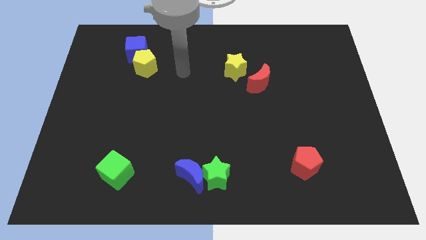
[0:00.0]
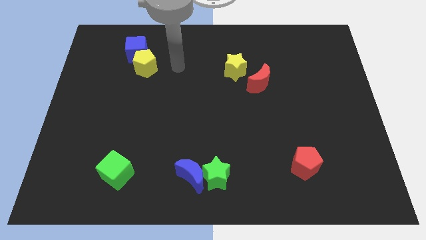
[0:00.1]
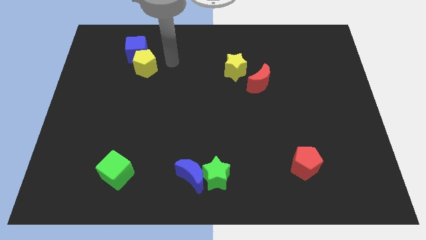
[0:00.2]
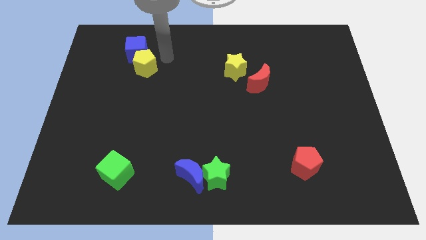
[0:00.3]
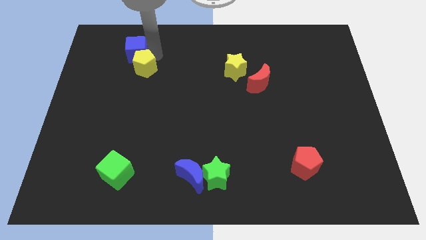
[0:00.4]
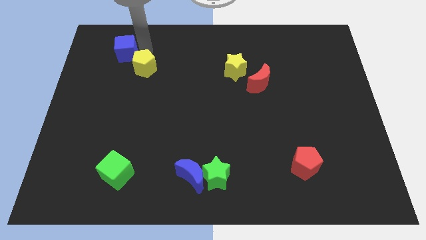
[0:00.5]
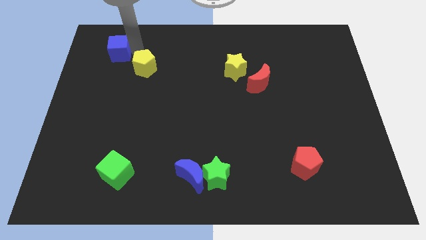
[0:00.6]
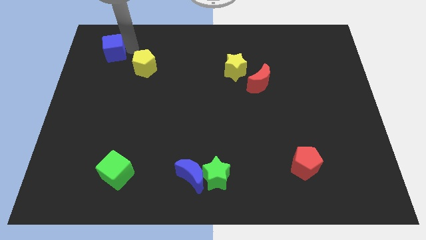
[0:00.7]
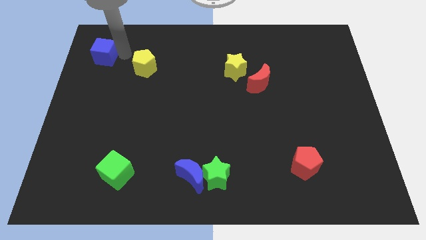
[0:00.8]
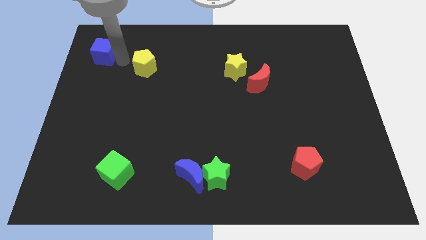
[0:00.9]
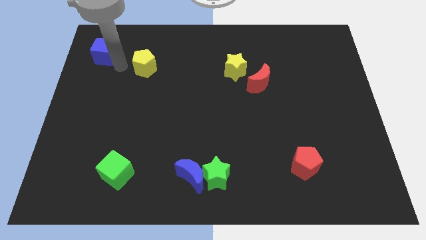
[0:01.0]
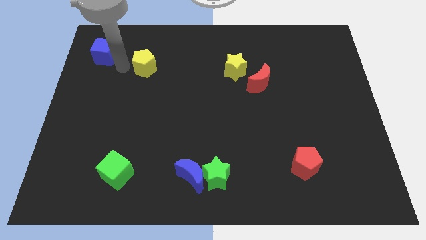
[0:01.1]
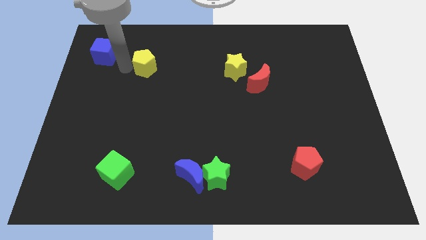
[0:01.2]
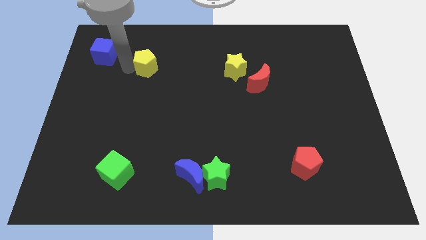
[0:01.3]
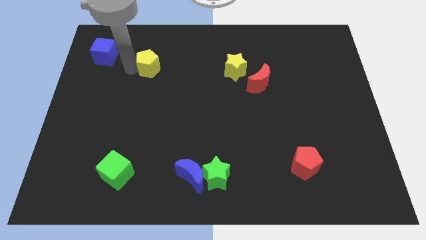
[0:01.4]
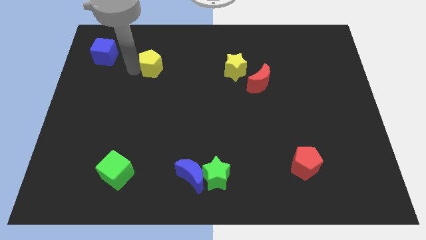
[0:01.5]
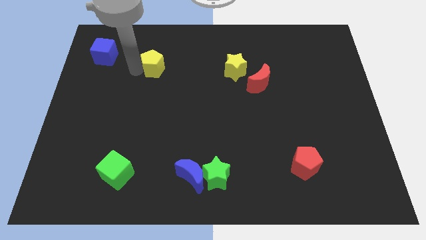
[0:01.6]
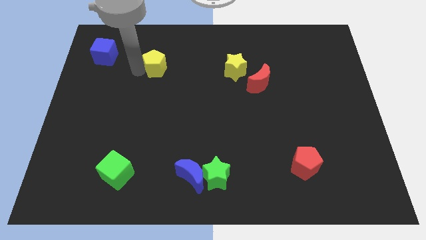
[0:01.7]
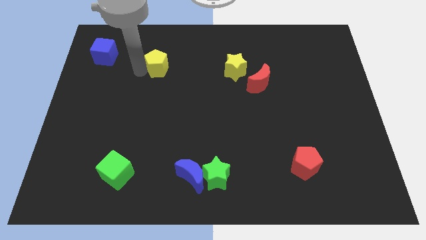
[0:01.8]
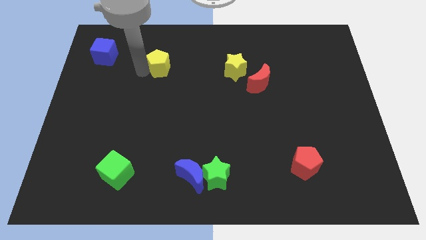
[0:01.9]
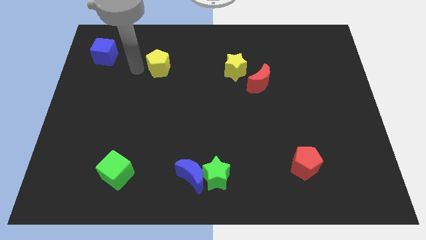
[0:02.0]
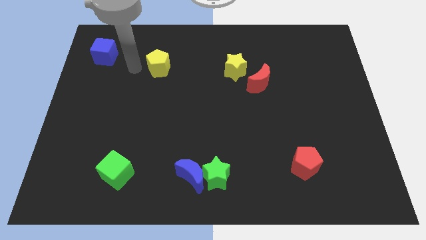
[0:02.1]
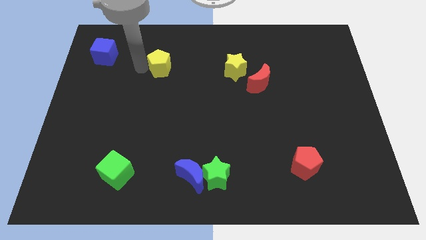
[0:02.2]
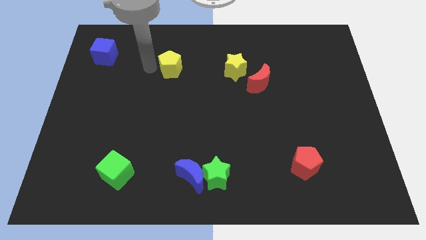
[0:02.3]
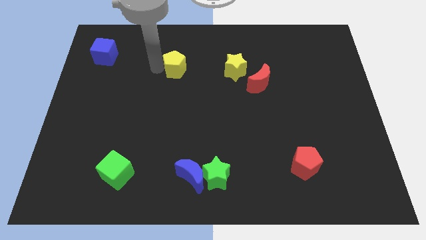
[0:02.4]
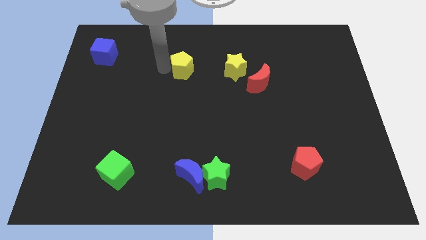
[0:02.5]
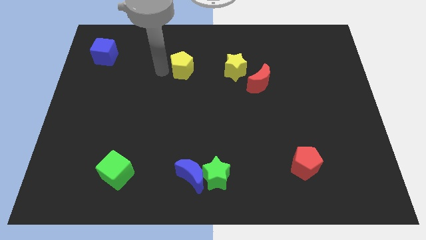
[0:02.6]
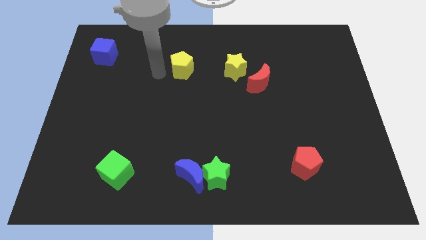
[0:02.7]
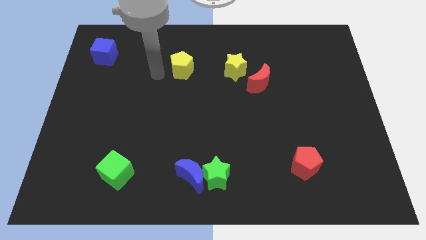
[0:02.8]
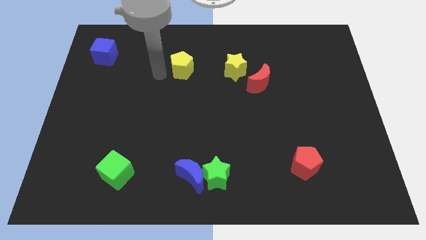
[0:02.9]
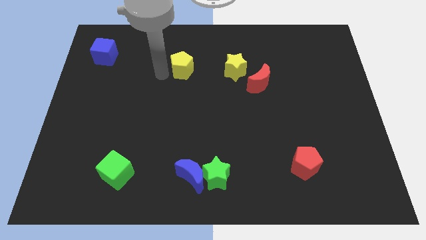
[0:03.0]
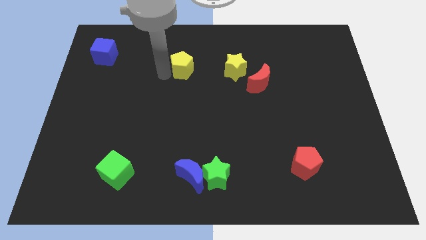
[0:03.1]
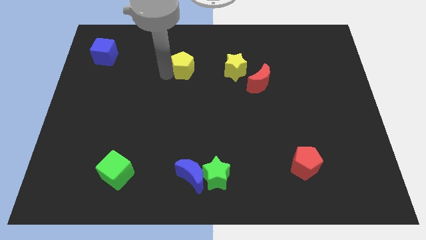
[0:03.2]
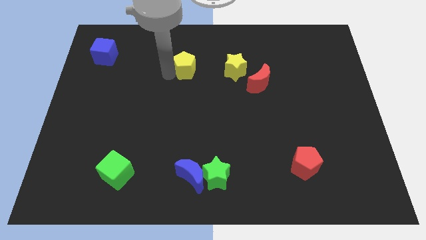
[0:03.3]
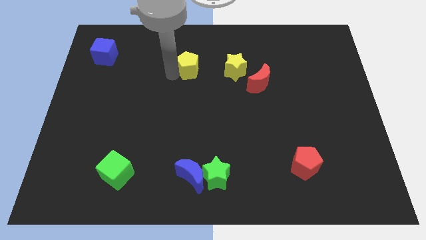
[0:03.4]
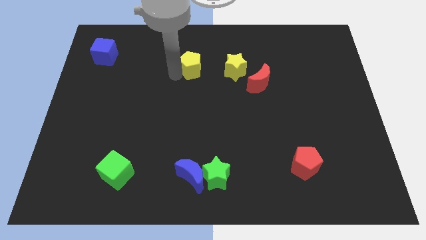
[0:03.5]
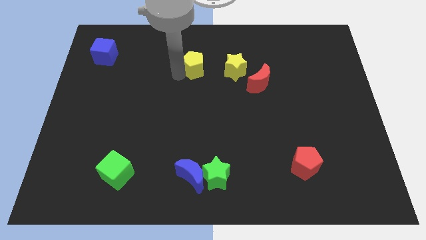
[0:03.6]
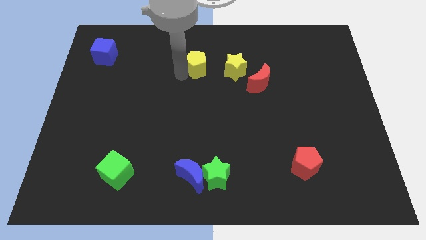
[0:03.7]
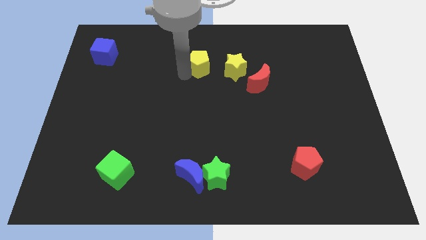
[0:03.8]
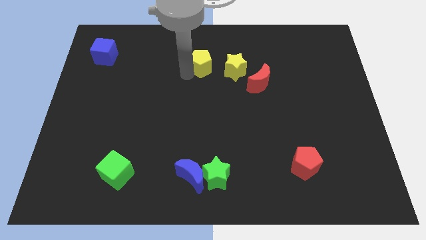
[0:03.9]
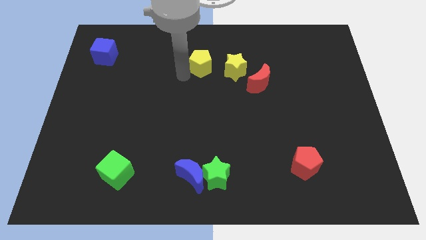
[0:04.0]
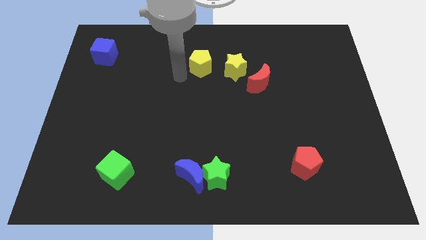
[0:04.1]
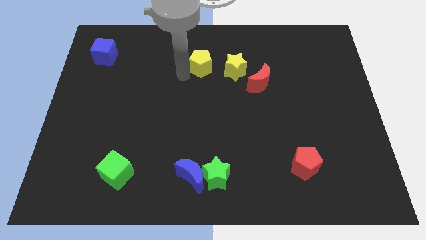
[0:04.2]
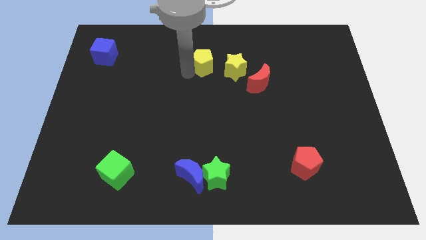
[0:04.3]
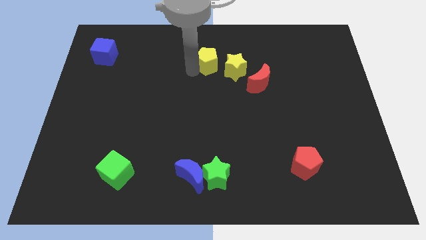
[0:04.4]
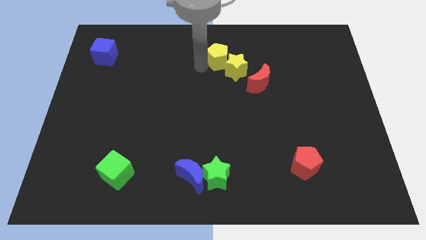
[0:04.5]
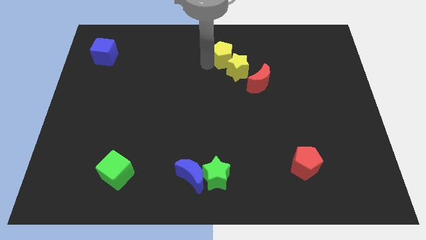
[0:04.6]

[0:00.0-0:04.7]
move the yellow pentagon to the right

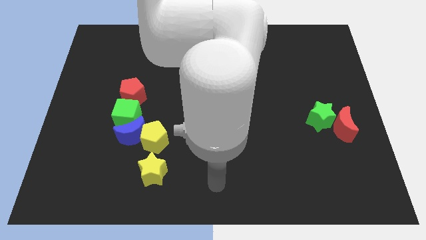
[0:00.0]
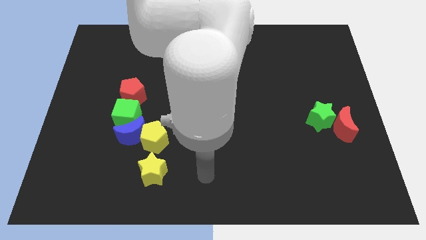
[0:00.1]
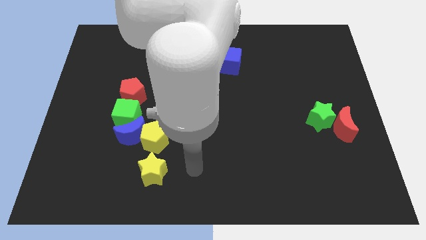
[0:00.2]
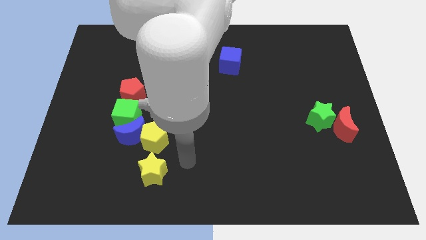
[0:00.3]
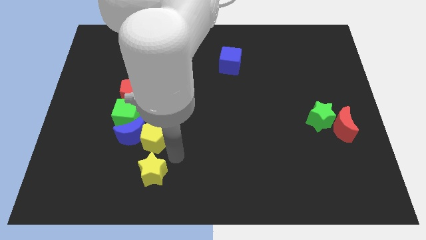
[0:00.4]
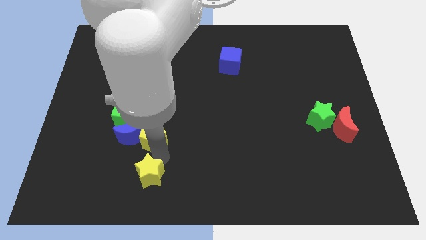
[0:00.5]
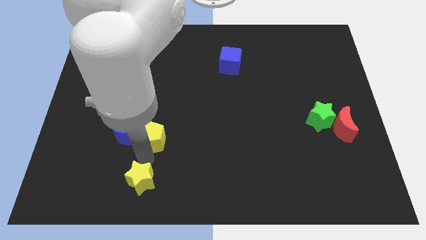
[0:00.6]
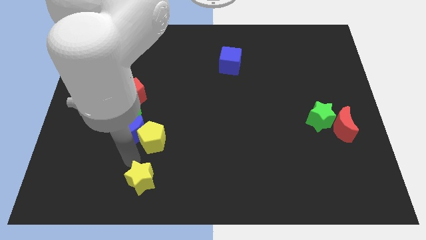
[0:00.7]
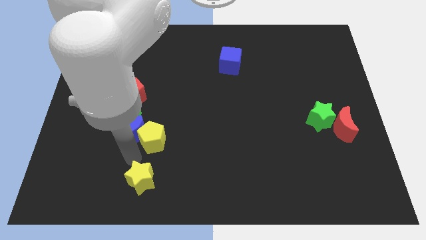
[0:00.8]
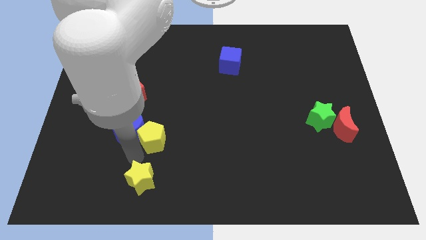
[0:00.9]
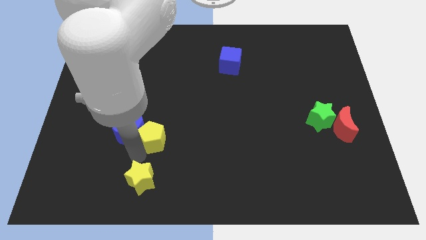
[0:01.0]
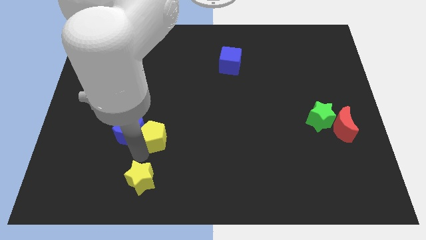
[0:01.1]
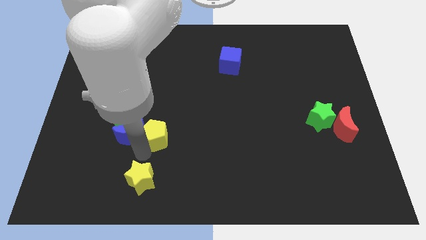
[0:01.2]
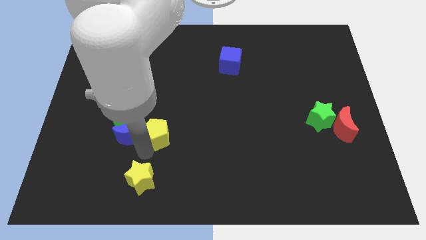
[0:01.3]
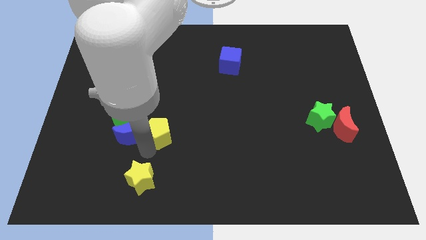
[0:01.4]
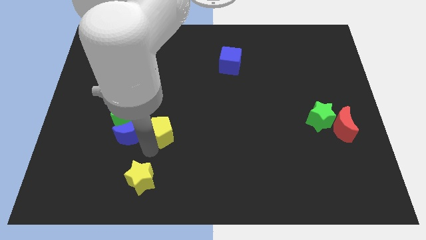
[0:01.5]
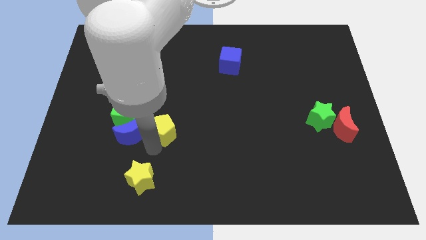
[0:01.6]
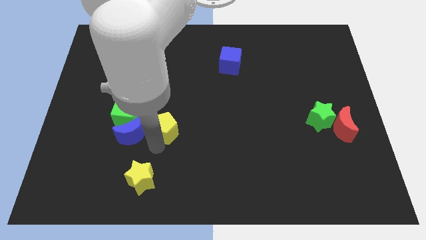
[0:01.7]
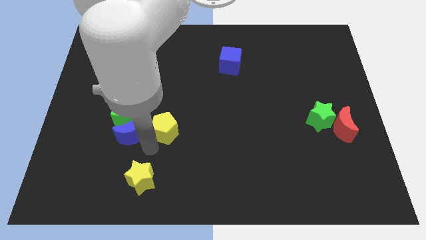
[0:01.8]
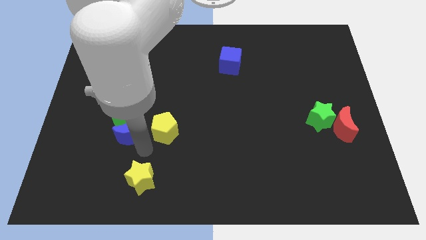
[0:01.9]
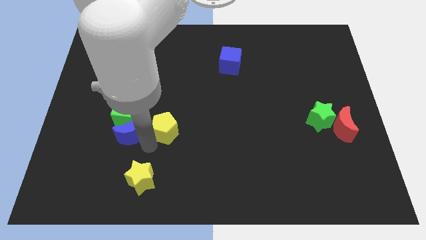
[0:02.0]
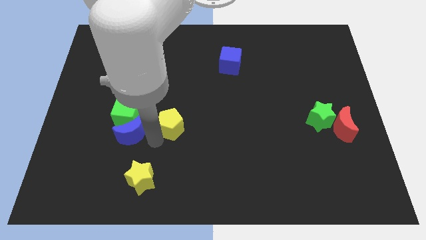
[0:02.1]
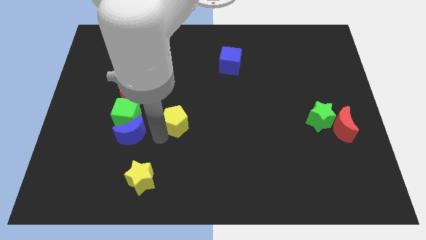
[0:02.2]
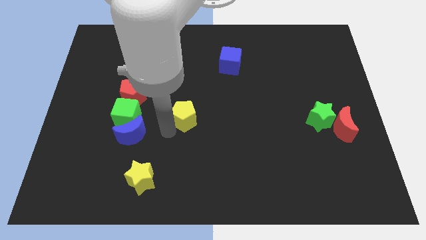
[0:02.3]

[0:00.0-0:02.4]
push the yellow pentagon diagonally up and to the right slightly

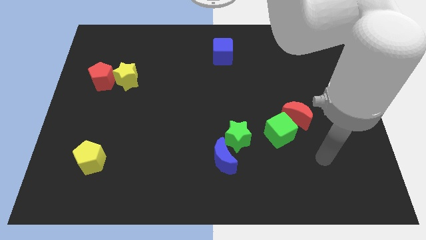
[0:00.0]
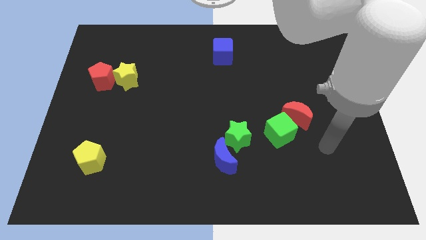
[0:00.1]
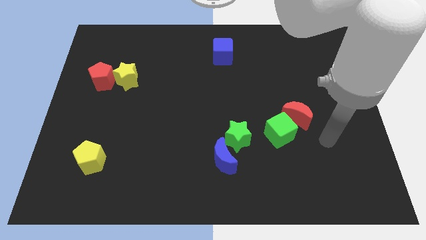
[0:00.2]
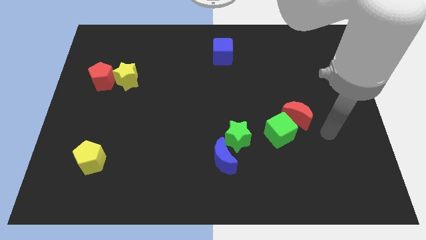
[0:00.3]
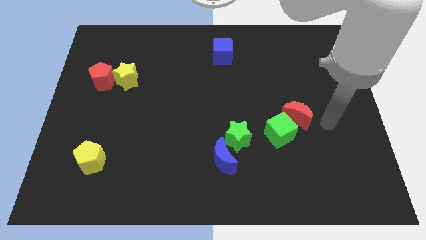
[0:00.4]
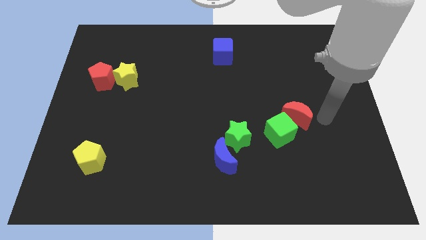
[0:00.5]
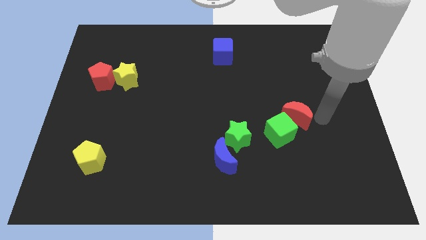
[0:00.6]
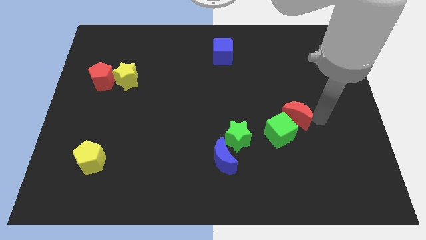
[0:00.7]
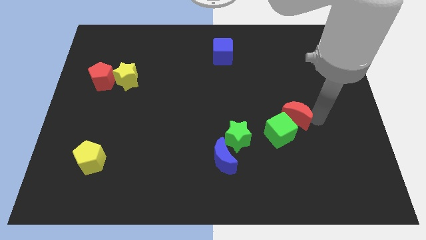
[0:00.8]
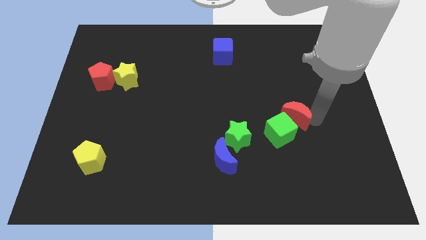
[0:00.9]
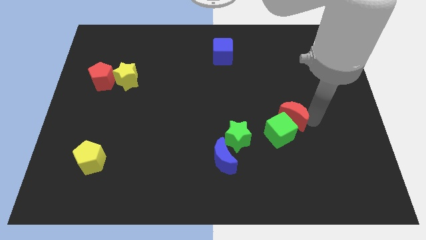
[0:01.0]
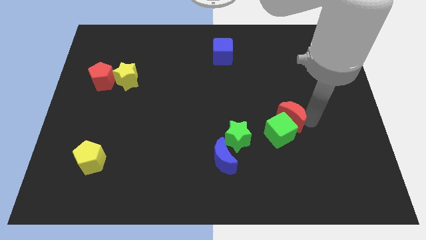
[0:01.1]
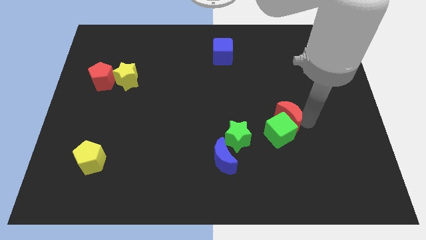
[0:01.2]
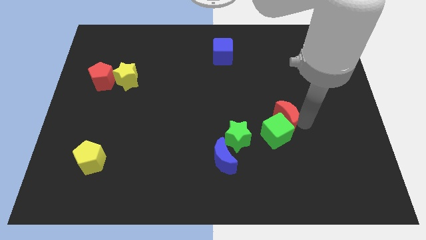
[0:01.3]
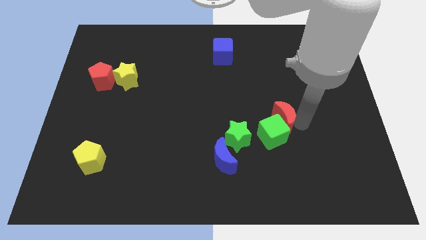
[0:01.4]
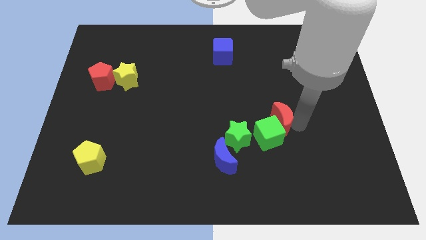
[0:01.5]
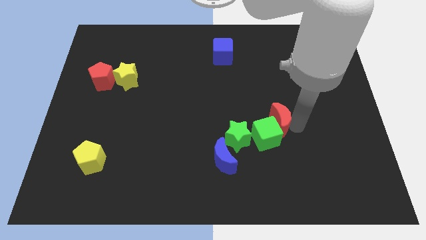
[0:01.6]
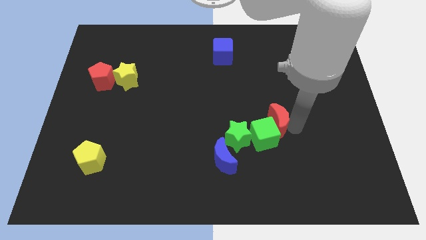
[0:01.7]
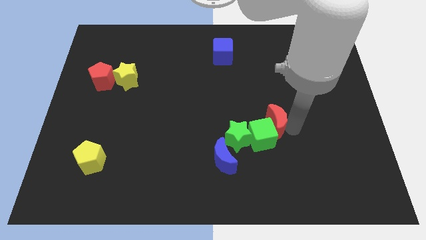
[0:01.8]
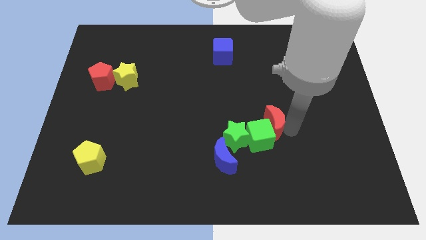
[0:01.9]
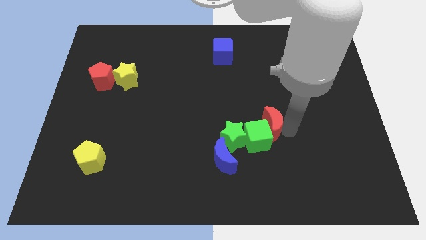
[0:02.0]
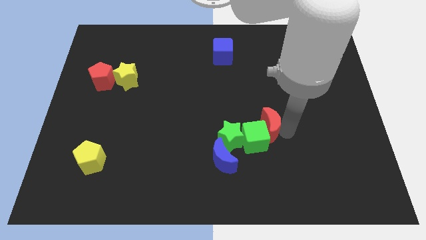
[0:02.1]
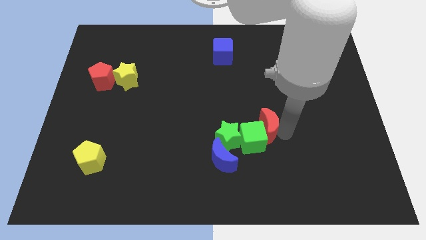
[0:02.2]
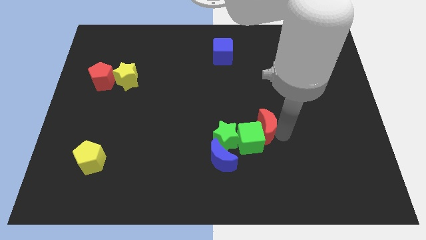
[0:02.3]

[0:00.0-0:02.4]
slightly move the red moon to the left
